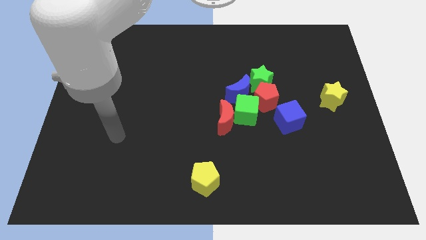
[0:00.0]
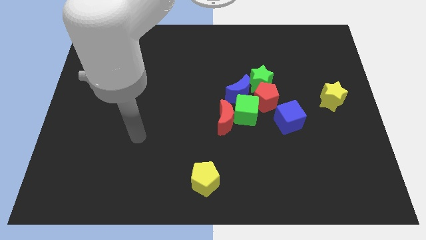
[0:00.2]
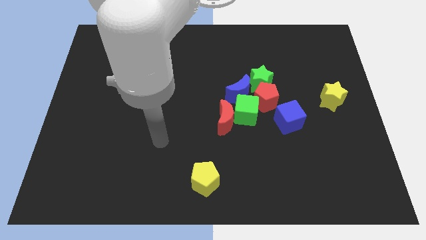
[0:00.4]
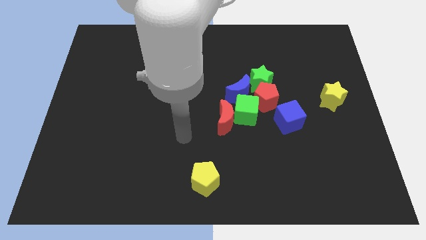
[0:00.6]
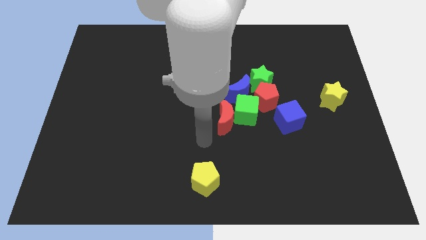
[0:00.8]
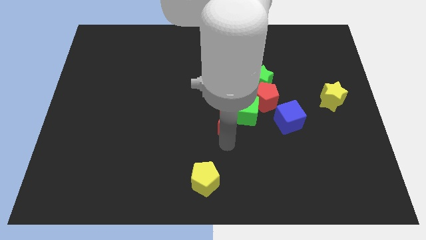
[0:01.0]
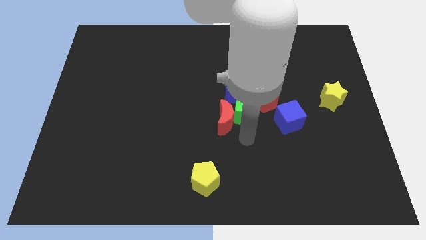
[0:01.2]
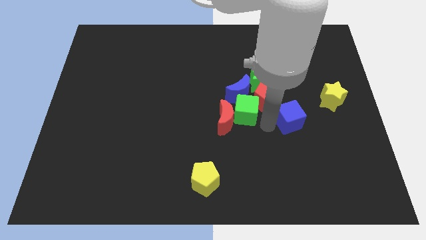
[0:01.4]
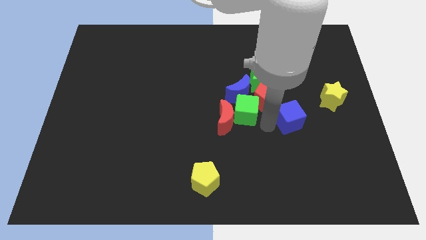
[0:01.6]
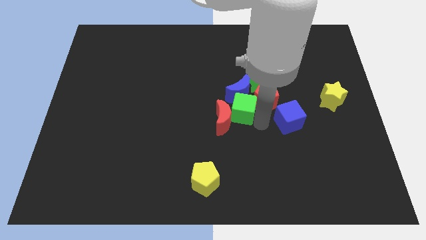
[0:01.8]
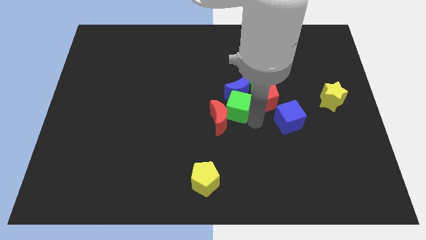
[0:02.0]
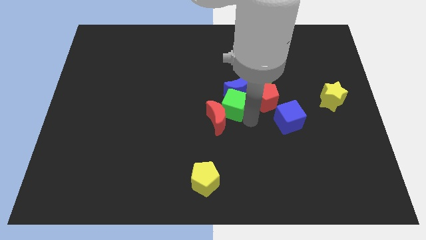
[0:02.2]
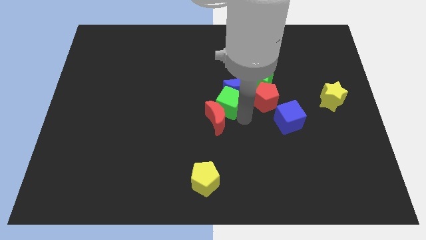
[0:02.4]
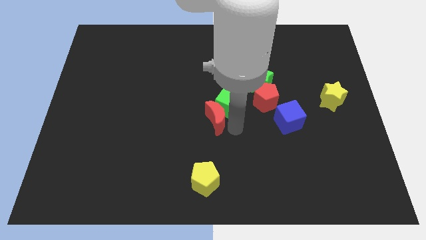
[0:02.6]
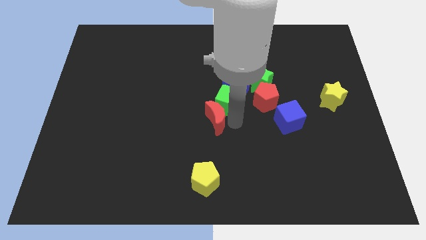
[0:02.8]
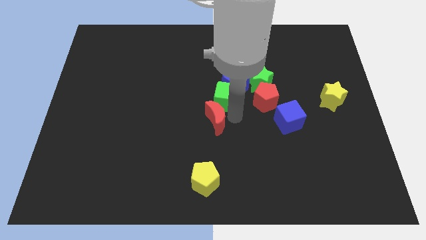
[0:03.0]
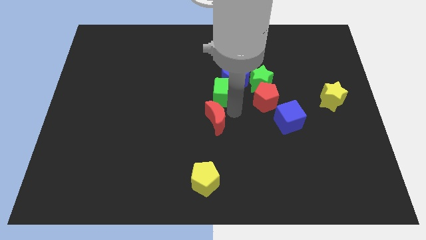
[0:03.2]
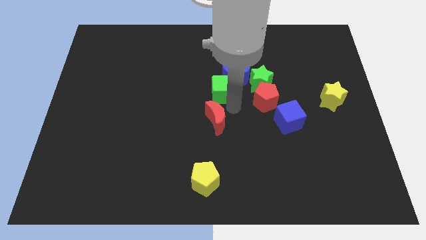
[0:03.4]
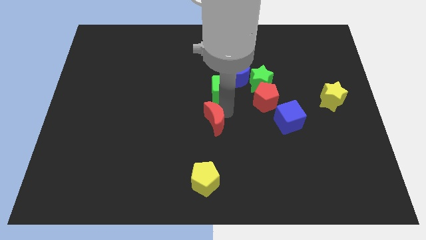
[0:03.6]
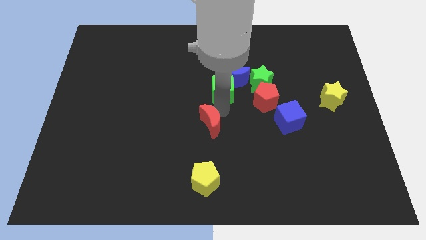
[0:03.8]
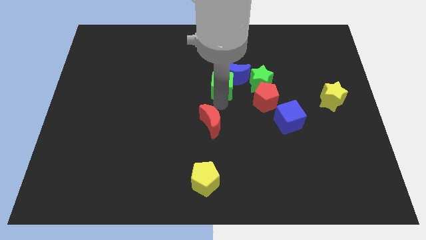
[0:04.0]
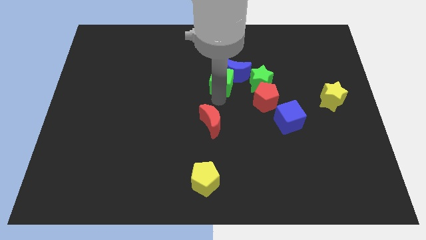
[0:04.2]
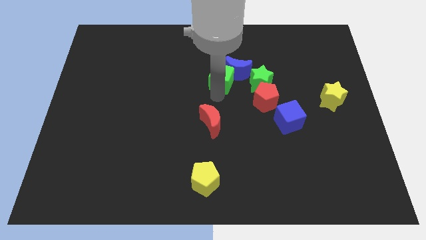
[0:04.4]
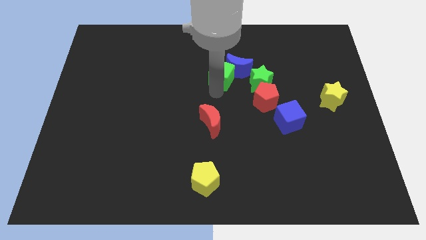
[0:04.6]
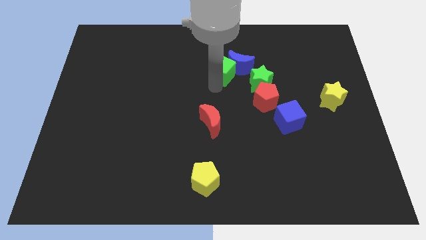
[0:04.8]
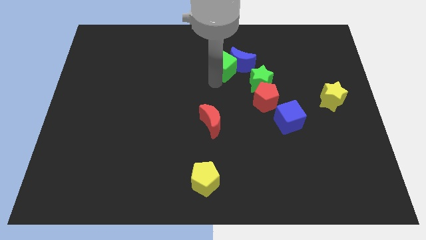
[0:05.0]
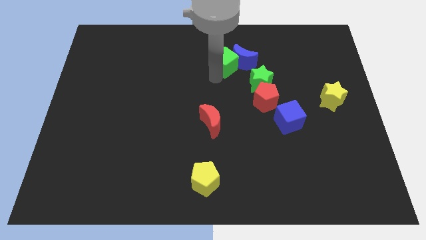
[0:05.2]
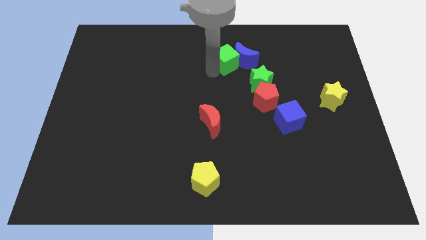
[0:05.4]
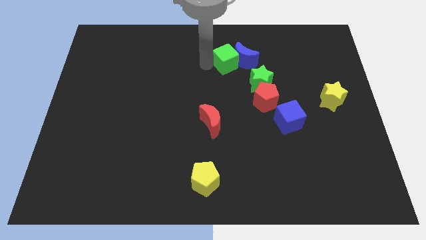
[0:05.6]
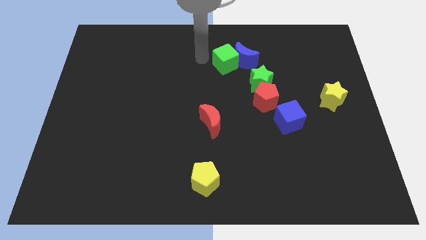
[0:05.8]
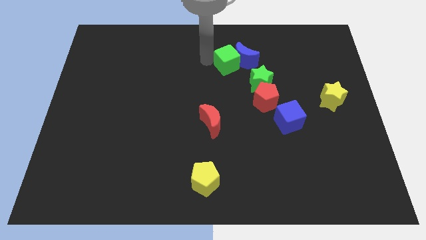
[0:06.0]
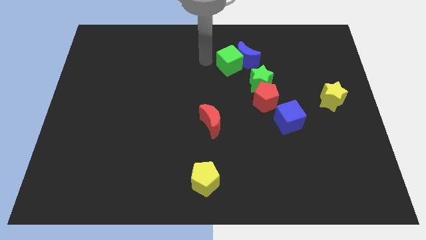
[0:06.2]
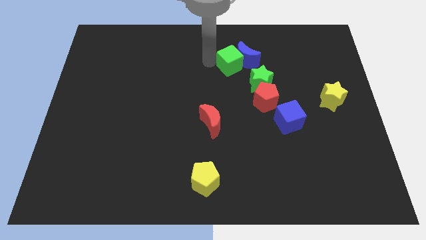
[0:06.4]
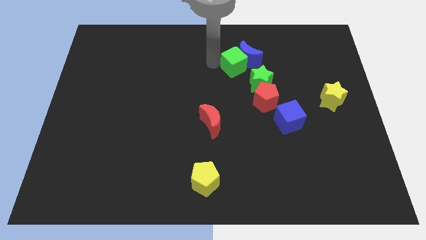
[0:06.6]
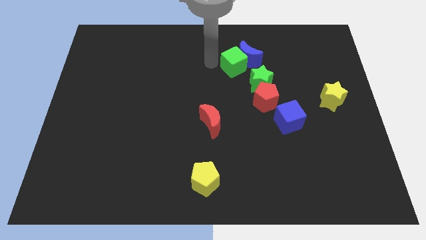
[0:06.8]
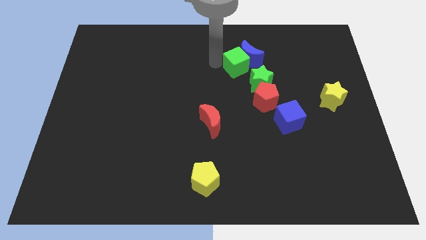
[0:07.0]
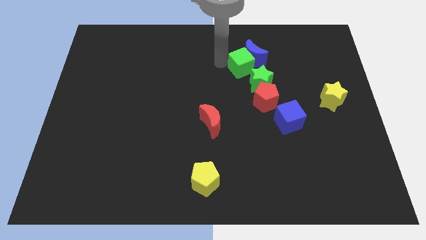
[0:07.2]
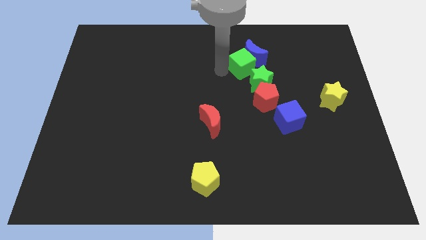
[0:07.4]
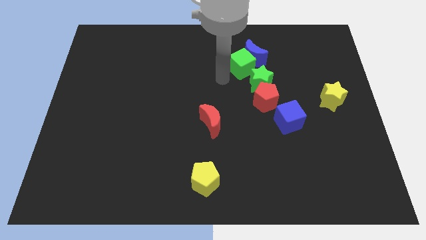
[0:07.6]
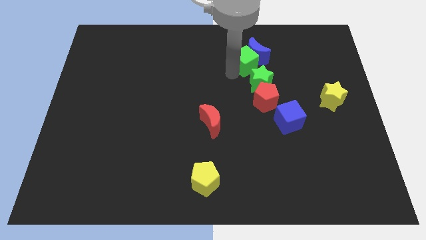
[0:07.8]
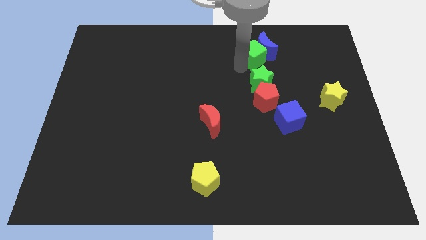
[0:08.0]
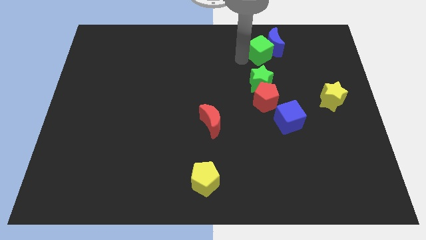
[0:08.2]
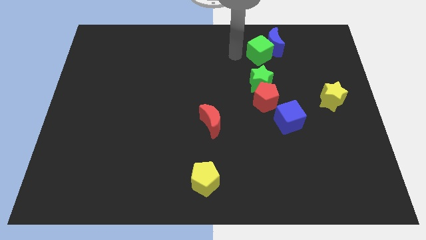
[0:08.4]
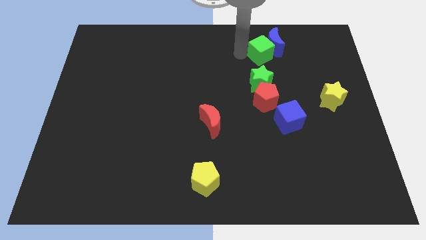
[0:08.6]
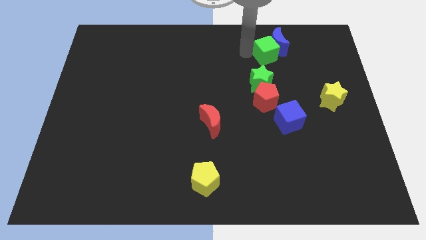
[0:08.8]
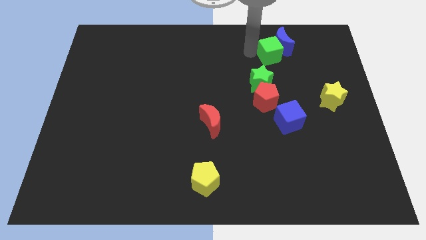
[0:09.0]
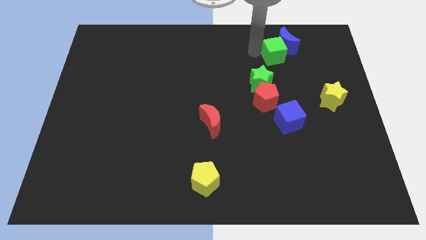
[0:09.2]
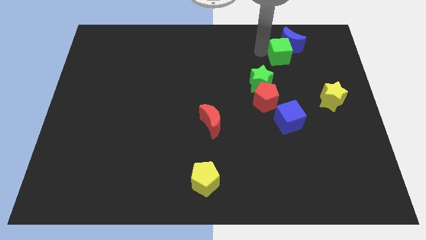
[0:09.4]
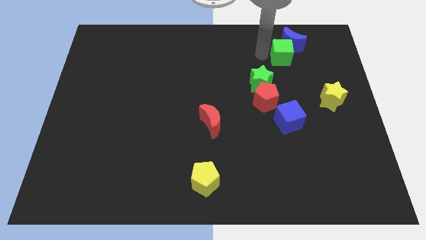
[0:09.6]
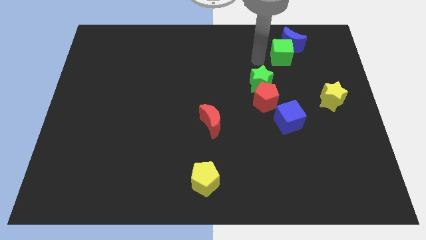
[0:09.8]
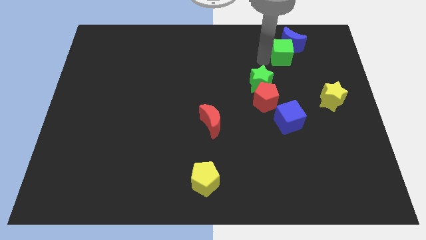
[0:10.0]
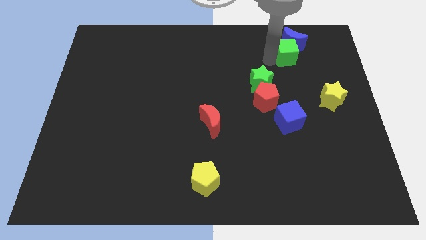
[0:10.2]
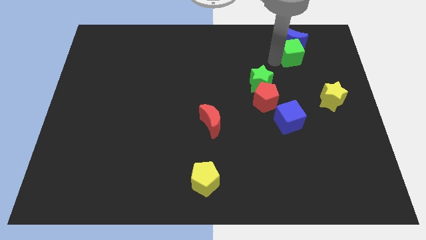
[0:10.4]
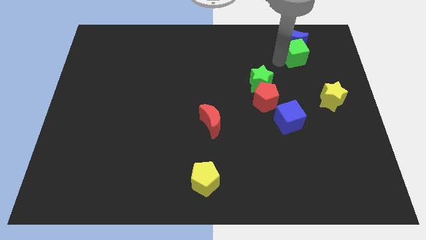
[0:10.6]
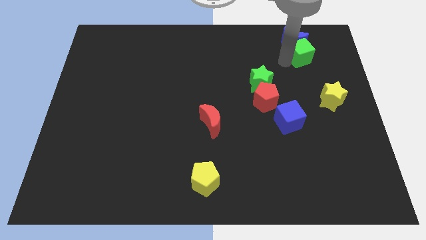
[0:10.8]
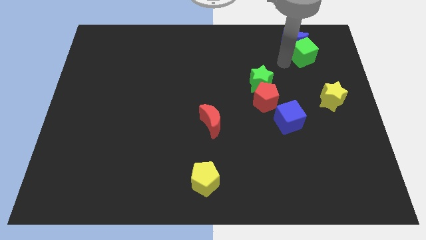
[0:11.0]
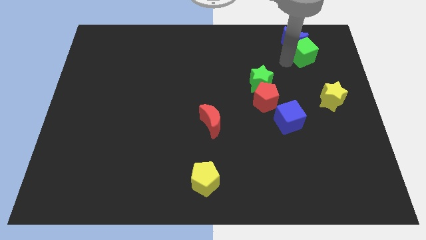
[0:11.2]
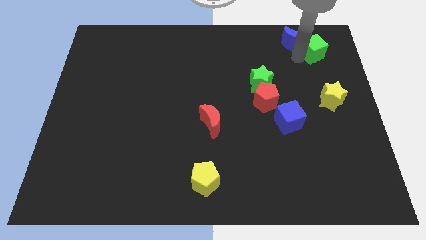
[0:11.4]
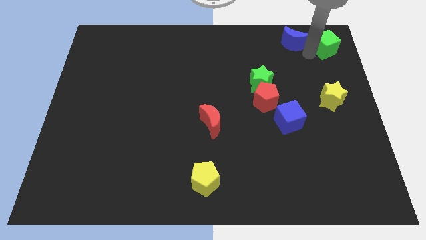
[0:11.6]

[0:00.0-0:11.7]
push the green cube to the top right corner

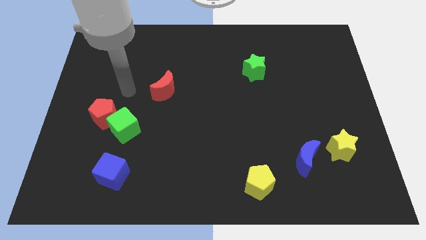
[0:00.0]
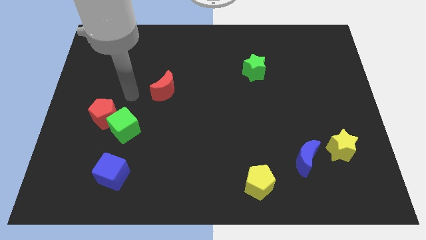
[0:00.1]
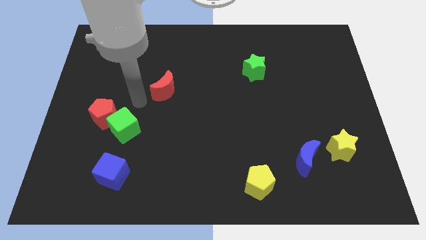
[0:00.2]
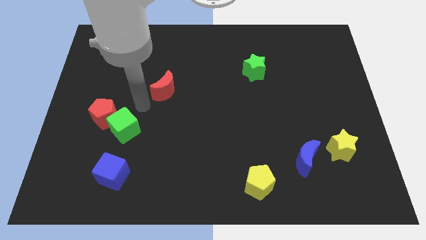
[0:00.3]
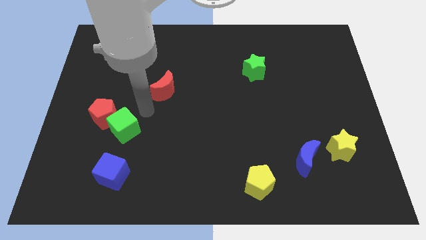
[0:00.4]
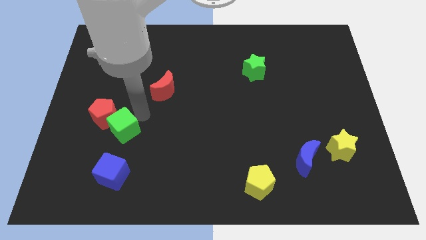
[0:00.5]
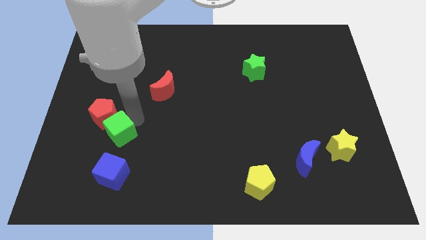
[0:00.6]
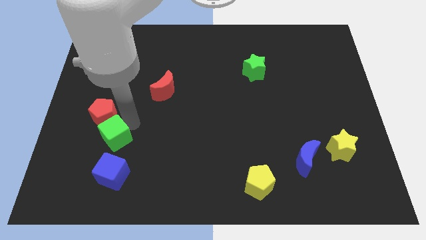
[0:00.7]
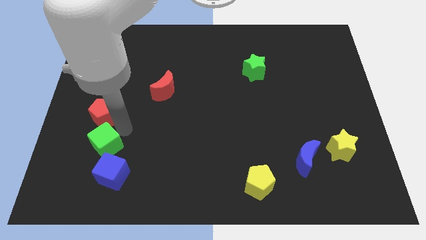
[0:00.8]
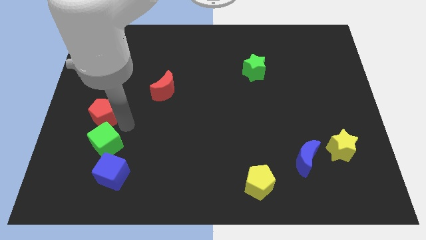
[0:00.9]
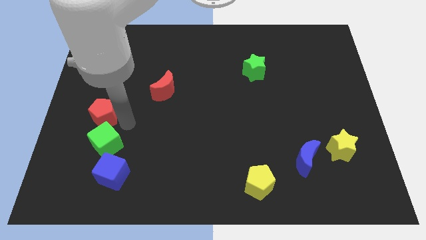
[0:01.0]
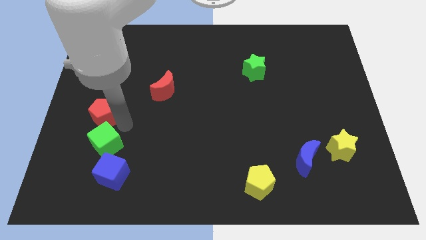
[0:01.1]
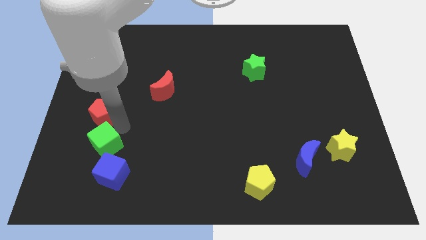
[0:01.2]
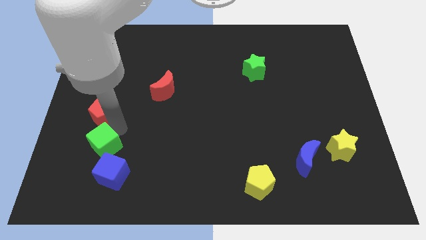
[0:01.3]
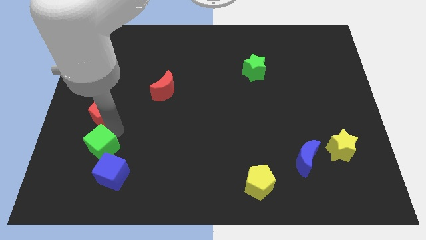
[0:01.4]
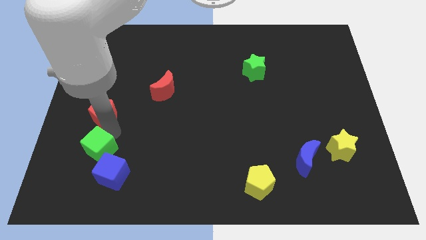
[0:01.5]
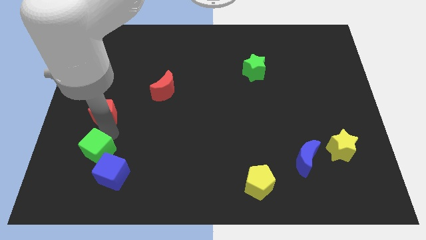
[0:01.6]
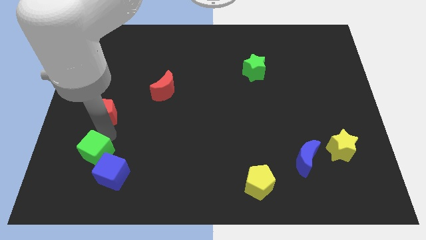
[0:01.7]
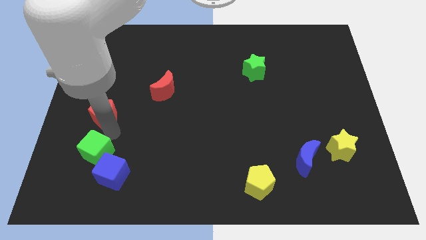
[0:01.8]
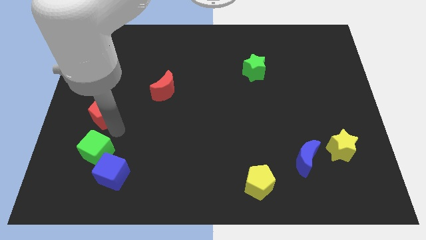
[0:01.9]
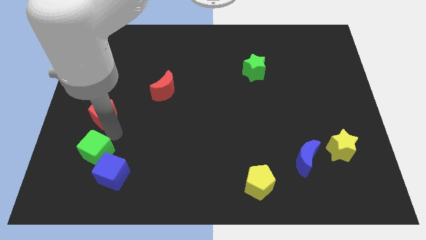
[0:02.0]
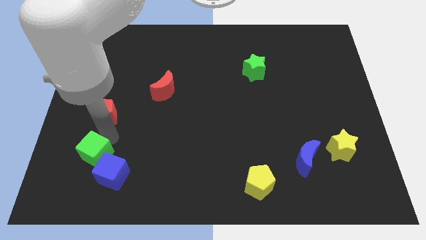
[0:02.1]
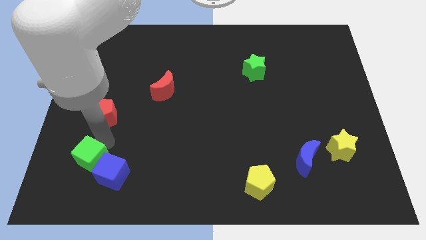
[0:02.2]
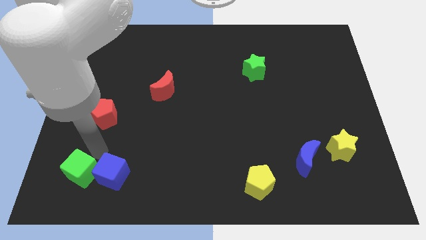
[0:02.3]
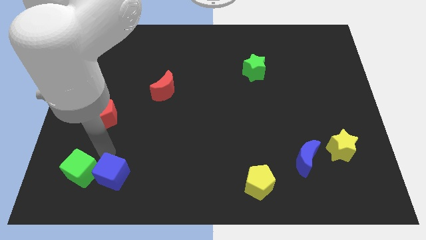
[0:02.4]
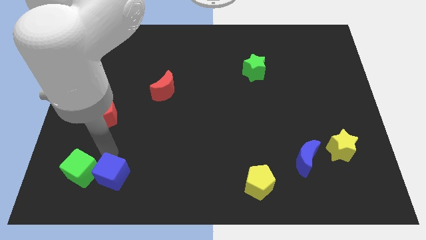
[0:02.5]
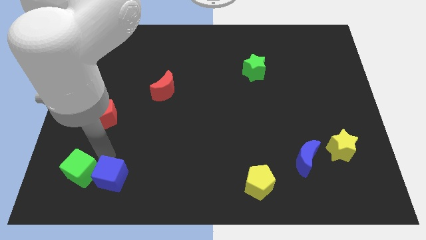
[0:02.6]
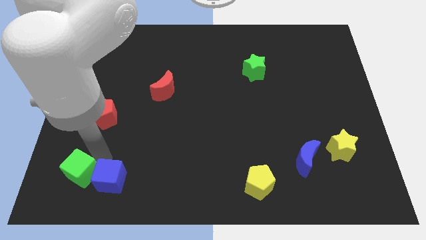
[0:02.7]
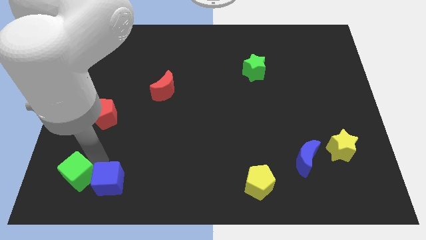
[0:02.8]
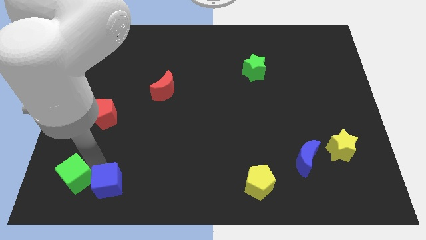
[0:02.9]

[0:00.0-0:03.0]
move the green cube to the bottom left of the board
